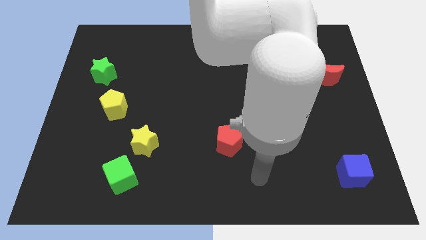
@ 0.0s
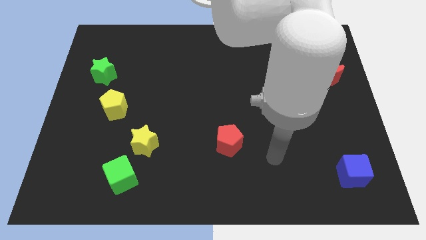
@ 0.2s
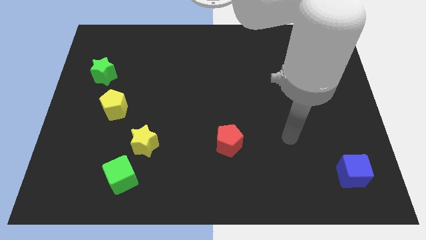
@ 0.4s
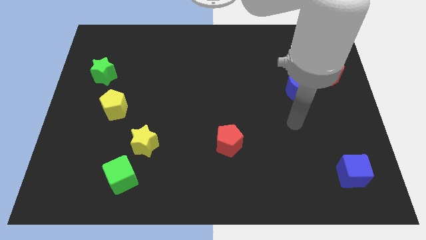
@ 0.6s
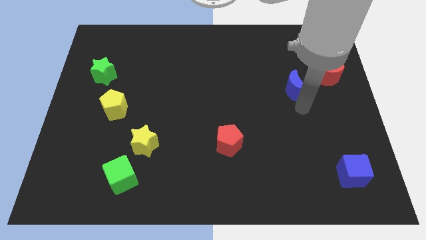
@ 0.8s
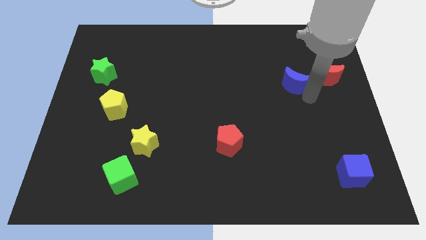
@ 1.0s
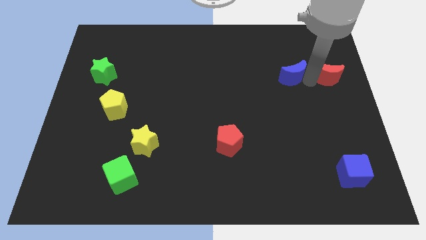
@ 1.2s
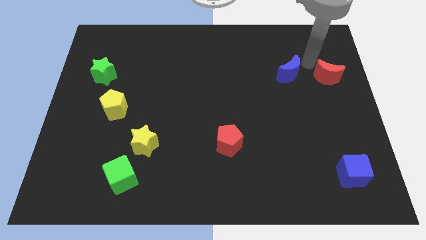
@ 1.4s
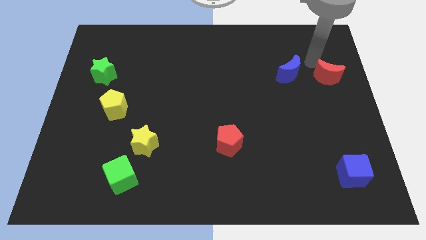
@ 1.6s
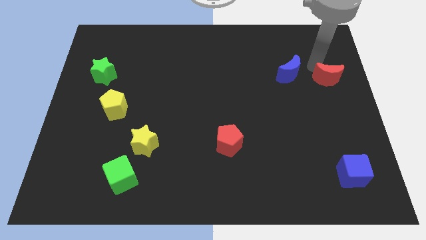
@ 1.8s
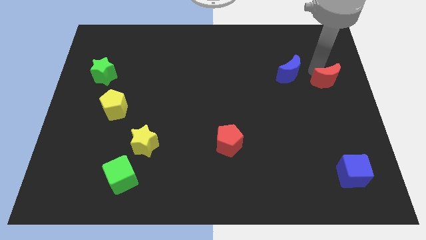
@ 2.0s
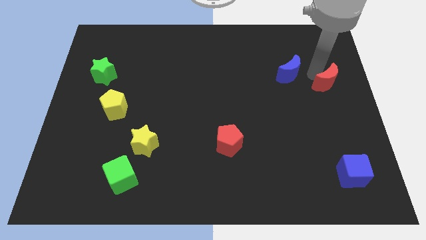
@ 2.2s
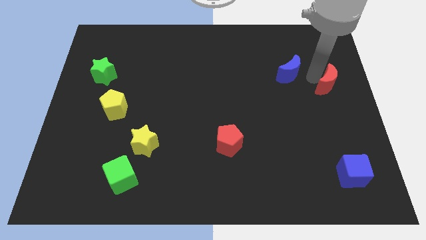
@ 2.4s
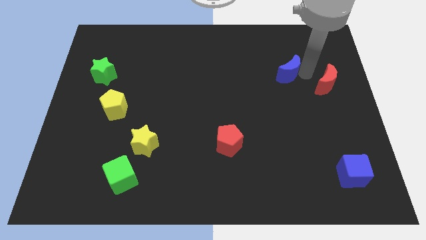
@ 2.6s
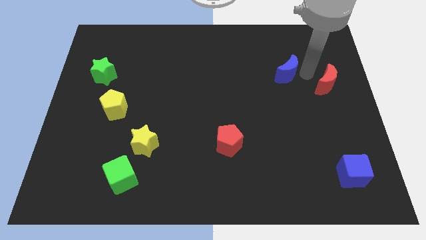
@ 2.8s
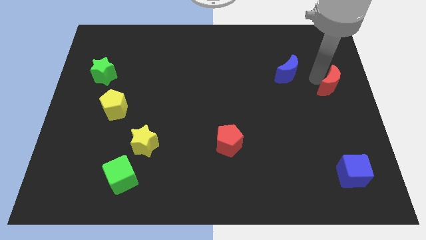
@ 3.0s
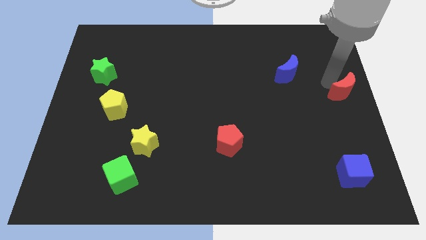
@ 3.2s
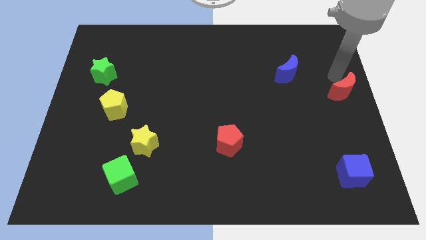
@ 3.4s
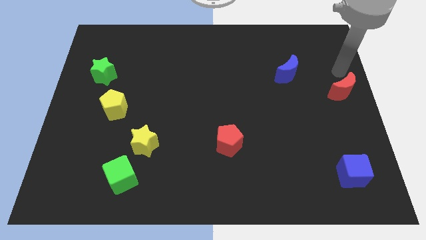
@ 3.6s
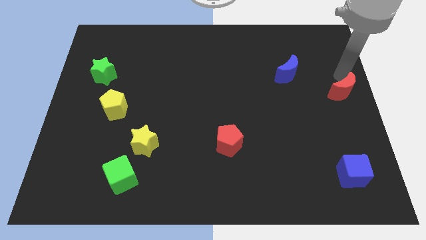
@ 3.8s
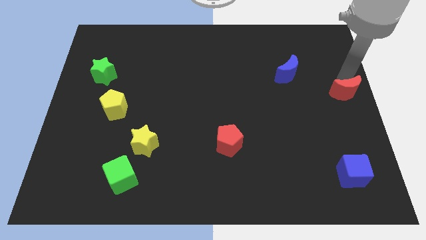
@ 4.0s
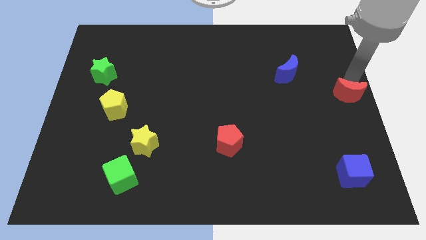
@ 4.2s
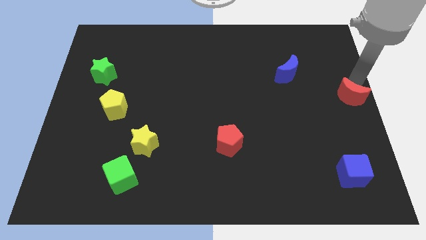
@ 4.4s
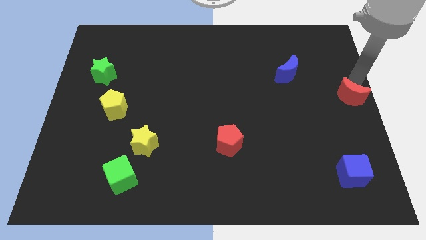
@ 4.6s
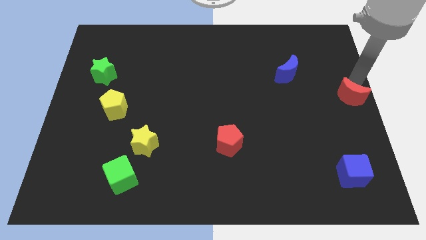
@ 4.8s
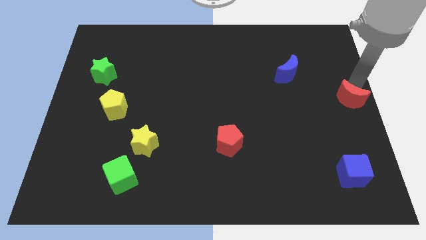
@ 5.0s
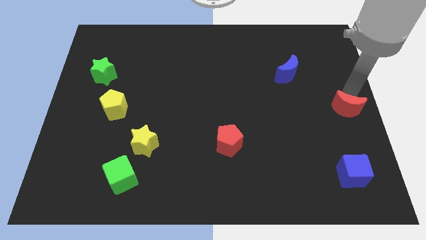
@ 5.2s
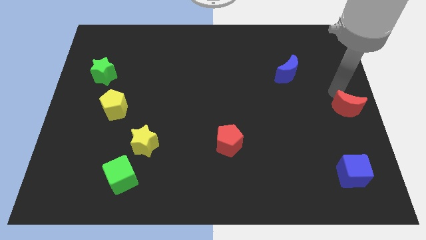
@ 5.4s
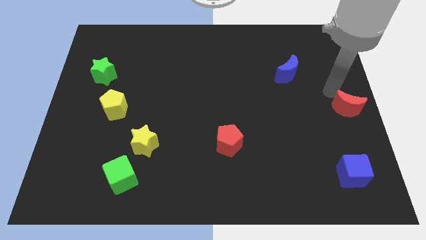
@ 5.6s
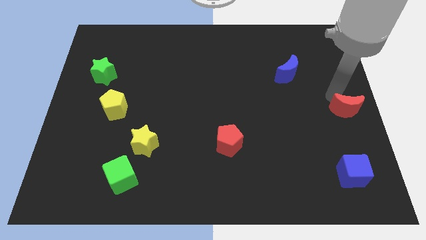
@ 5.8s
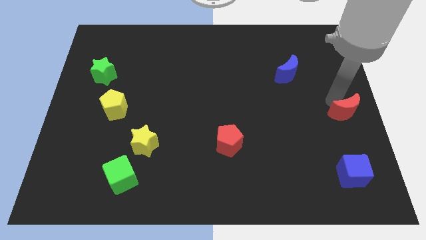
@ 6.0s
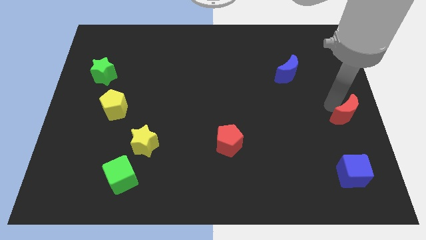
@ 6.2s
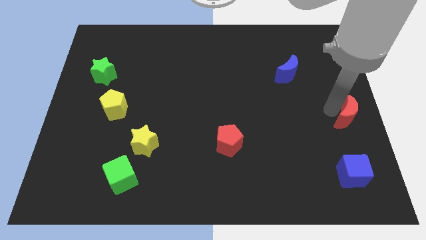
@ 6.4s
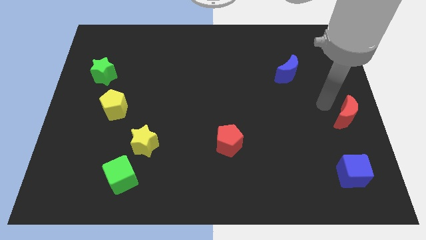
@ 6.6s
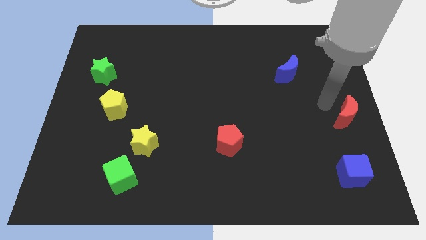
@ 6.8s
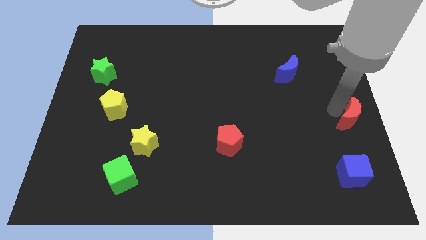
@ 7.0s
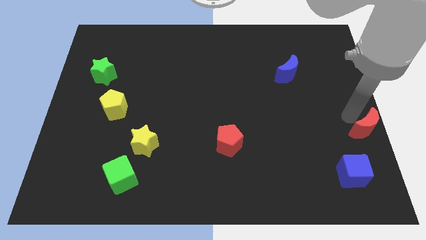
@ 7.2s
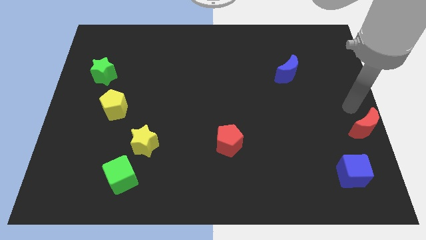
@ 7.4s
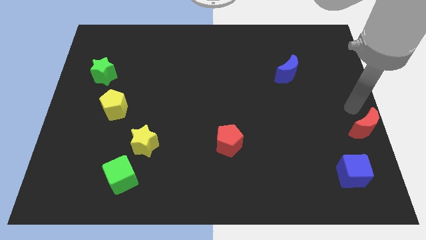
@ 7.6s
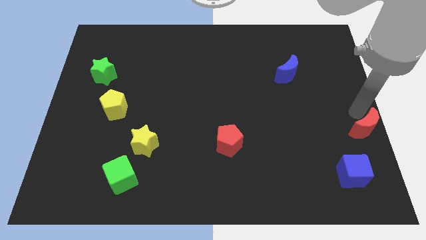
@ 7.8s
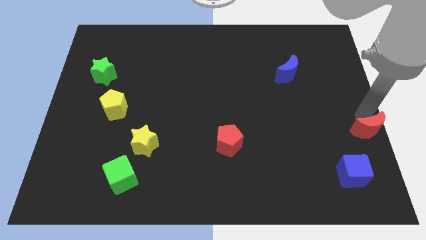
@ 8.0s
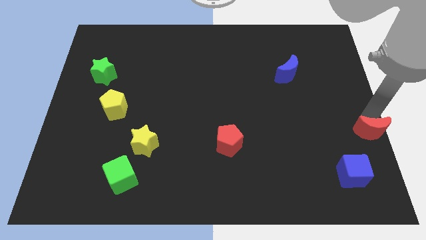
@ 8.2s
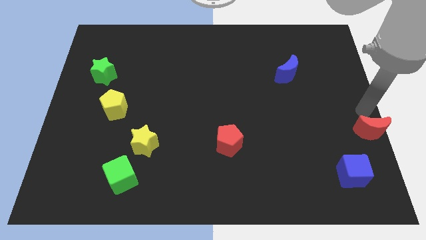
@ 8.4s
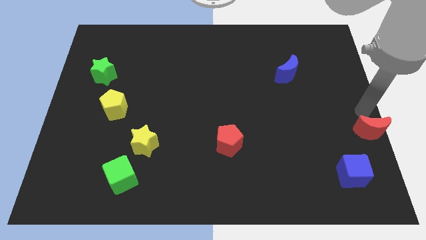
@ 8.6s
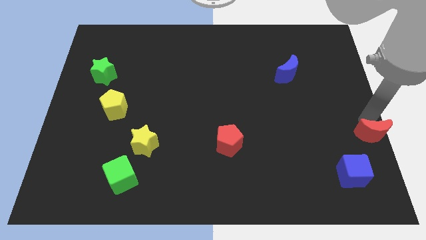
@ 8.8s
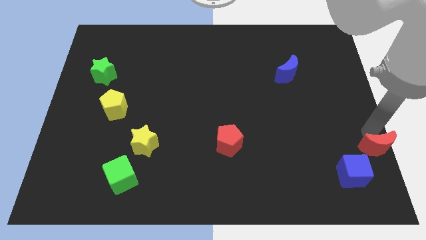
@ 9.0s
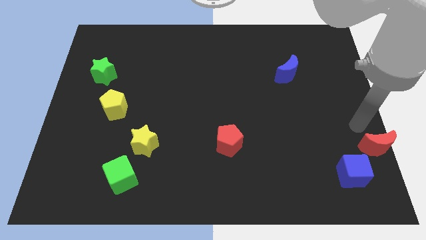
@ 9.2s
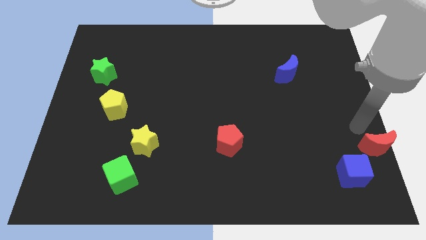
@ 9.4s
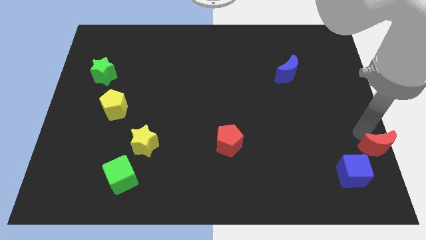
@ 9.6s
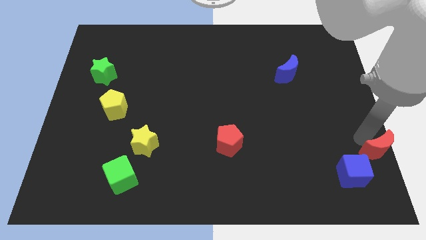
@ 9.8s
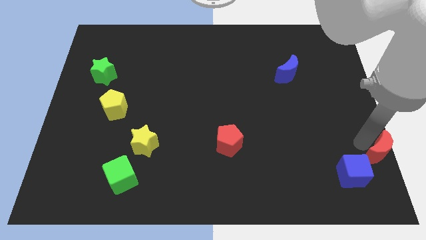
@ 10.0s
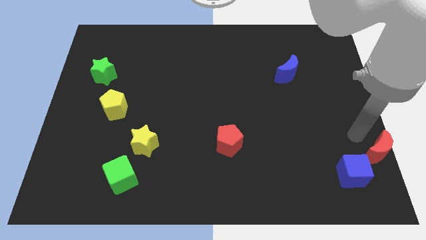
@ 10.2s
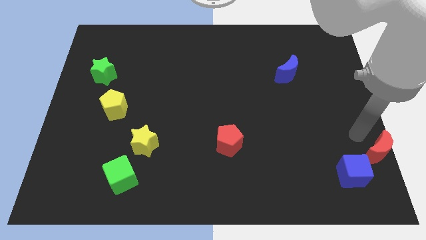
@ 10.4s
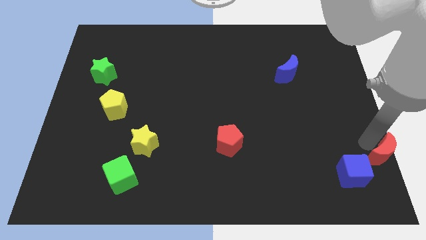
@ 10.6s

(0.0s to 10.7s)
put the red moon to the lower right corner

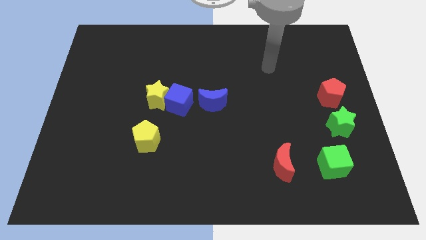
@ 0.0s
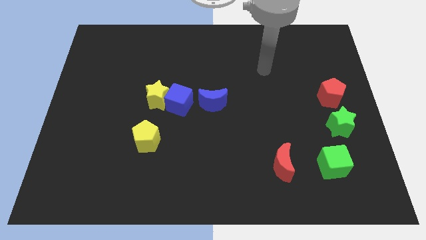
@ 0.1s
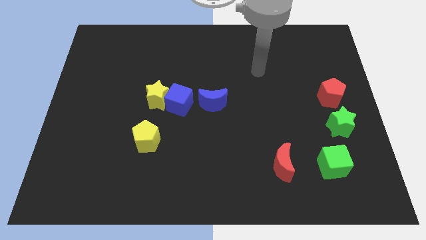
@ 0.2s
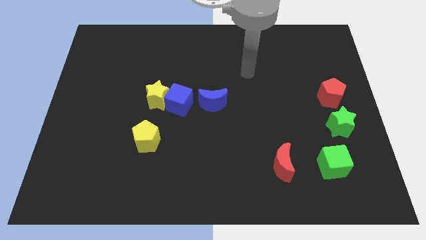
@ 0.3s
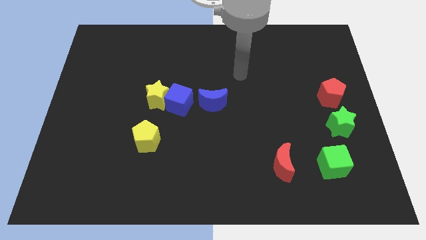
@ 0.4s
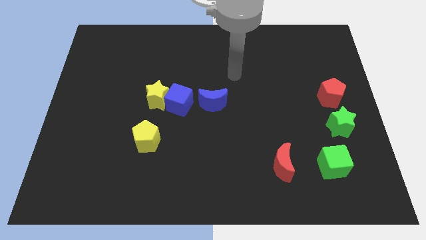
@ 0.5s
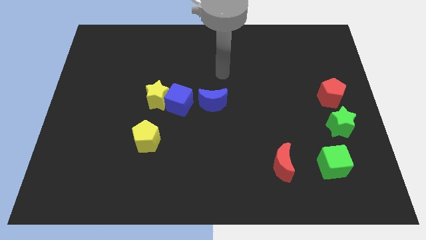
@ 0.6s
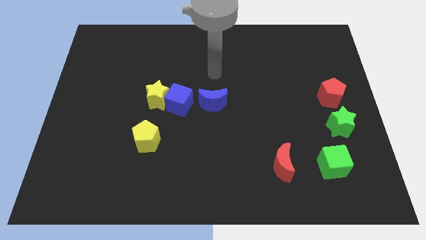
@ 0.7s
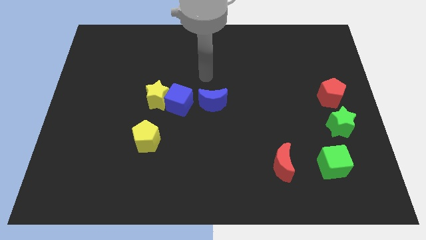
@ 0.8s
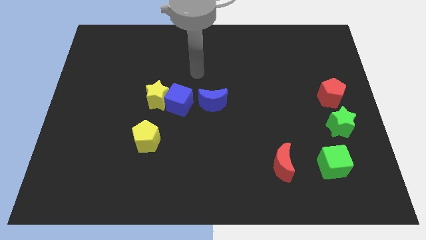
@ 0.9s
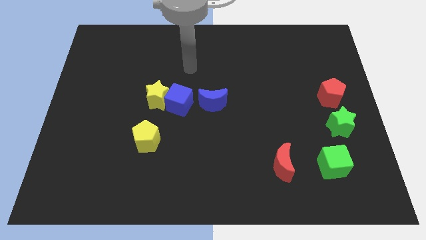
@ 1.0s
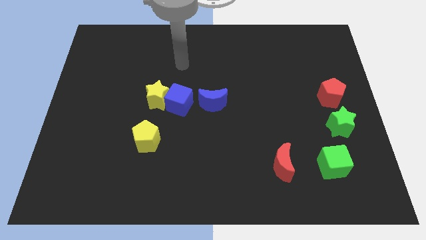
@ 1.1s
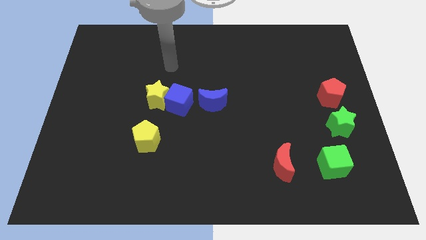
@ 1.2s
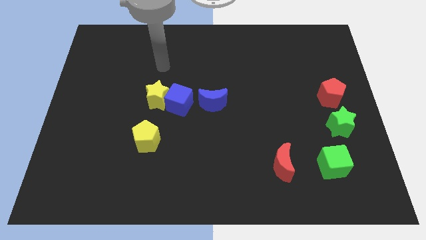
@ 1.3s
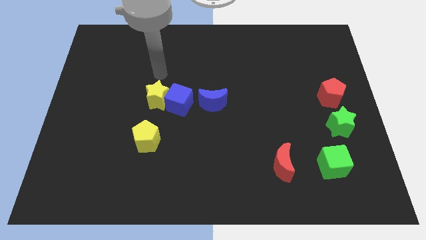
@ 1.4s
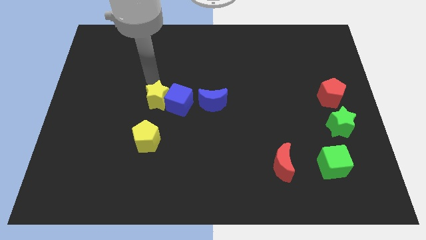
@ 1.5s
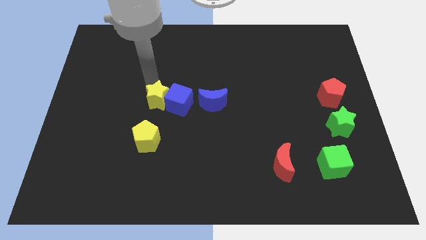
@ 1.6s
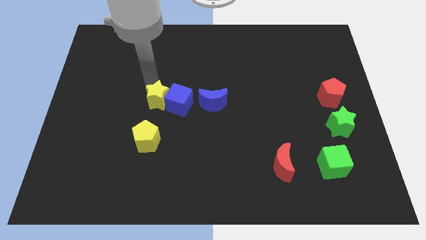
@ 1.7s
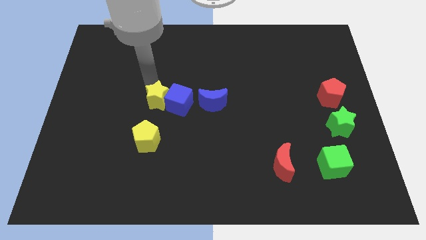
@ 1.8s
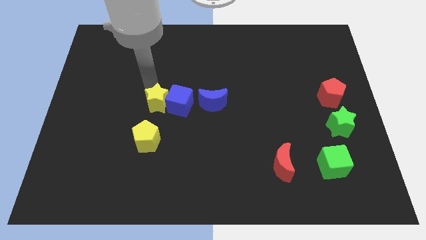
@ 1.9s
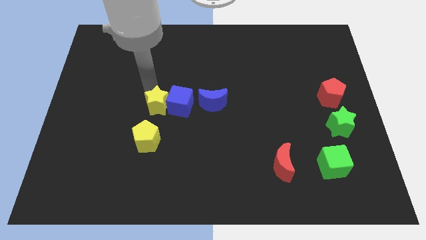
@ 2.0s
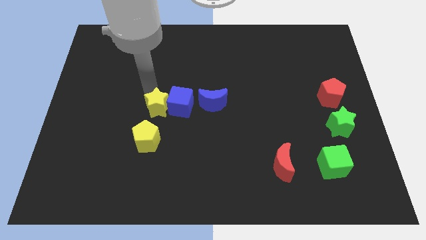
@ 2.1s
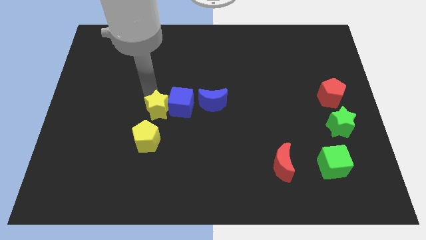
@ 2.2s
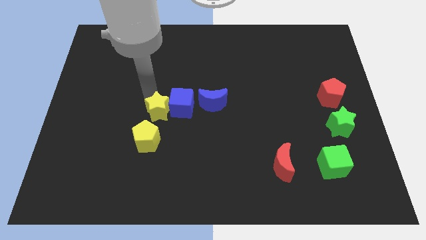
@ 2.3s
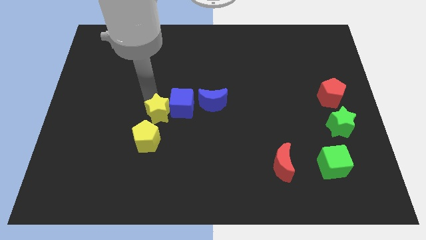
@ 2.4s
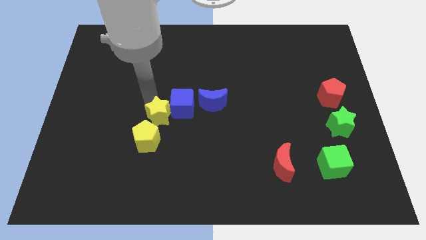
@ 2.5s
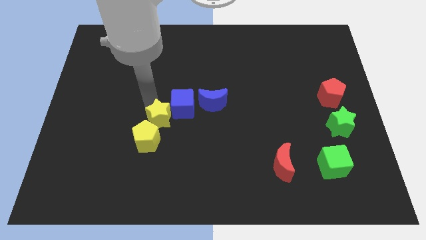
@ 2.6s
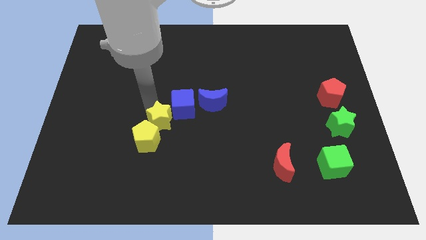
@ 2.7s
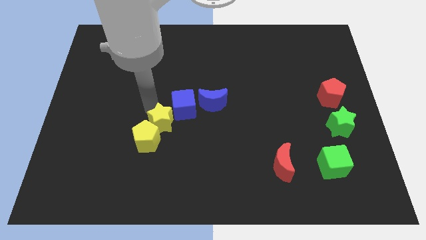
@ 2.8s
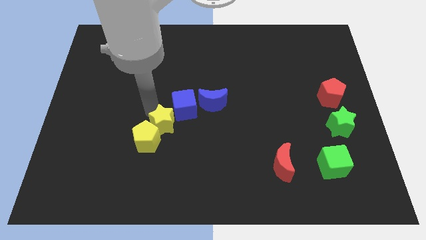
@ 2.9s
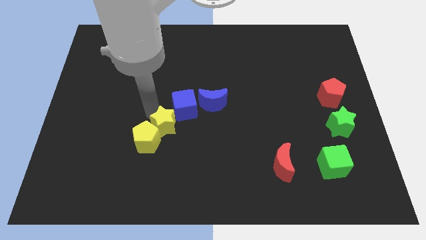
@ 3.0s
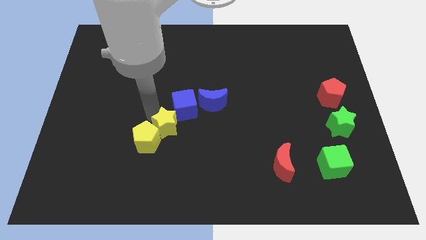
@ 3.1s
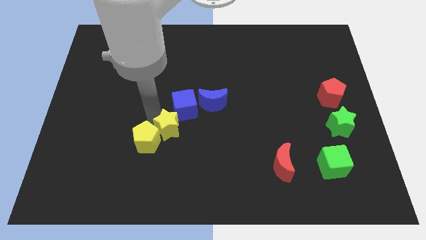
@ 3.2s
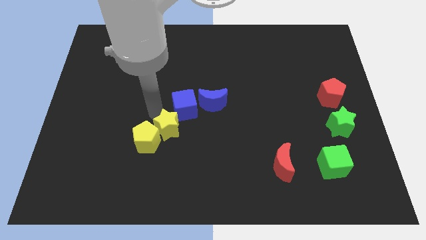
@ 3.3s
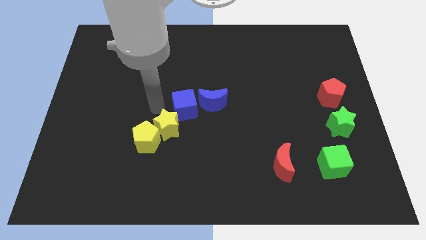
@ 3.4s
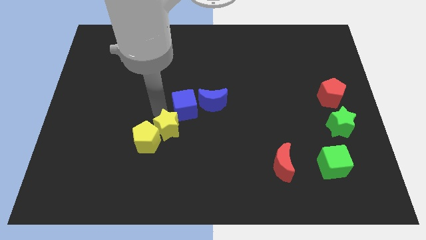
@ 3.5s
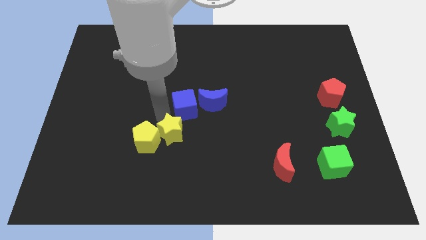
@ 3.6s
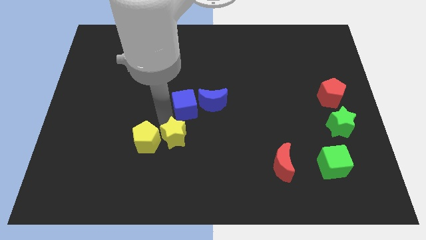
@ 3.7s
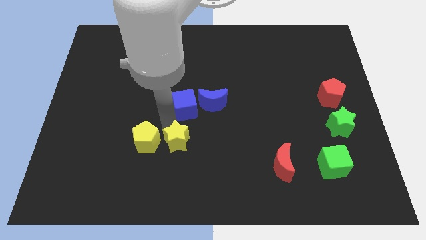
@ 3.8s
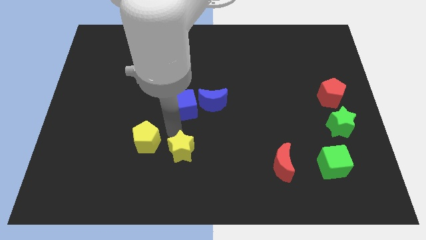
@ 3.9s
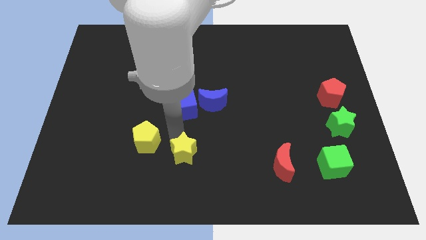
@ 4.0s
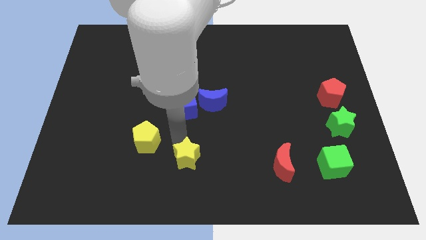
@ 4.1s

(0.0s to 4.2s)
move the yellow star to the bottom side
